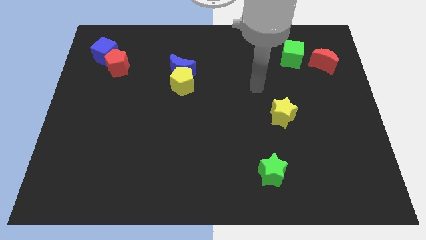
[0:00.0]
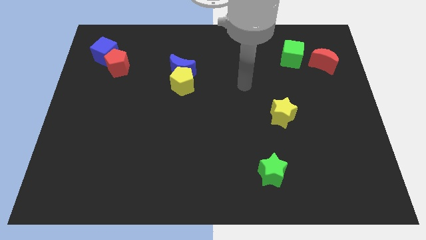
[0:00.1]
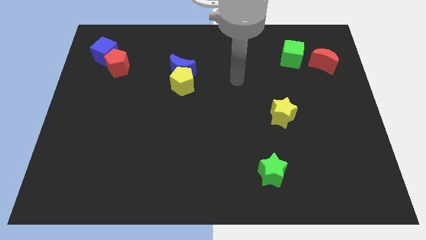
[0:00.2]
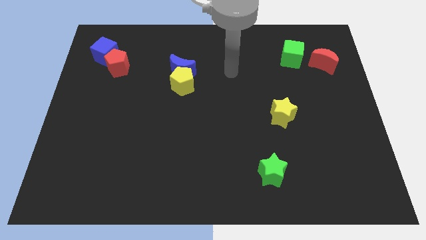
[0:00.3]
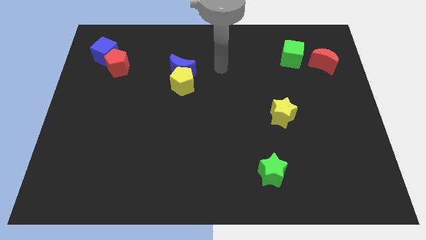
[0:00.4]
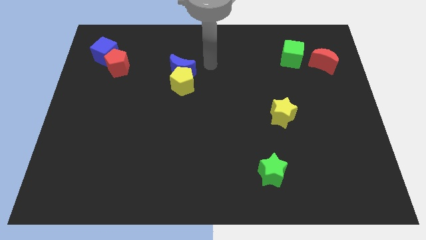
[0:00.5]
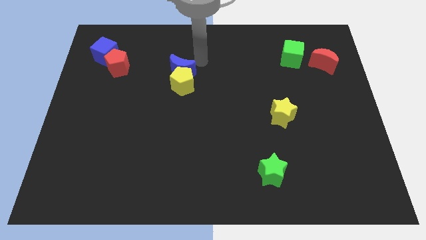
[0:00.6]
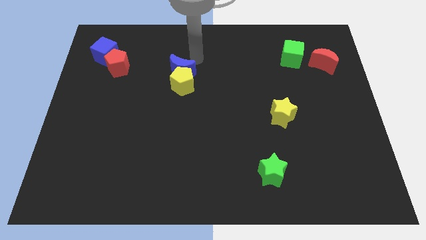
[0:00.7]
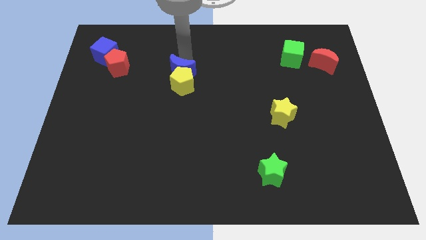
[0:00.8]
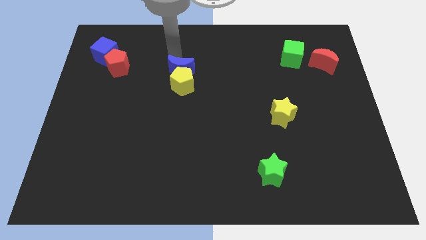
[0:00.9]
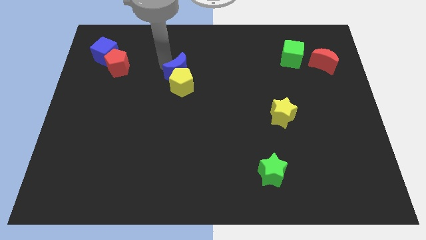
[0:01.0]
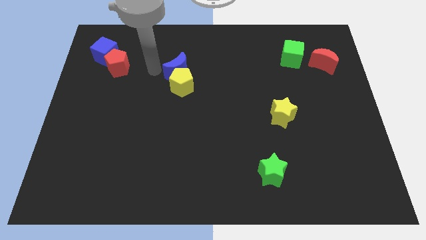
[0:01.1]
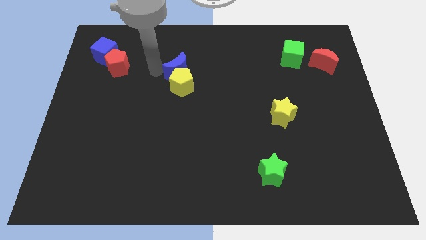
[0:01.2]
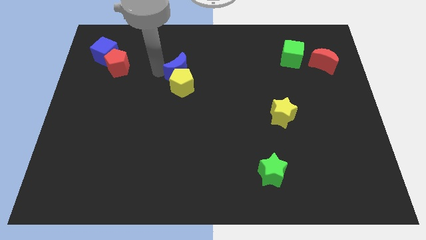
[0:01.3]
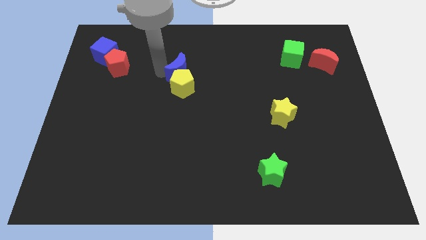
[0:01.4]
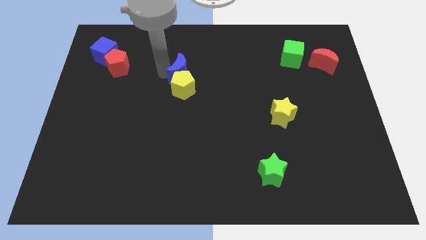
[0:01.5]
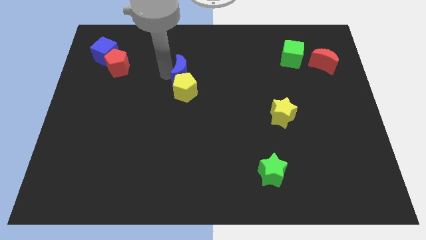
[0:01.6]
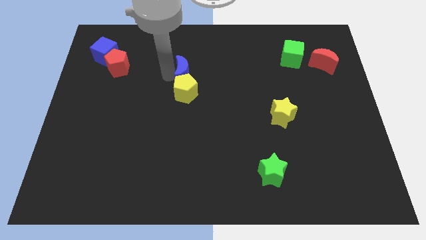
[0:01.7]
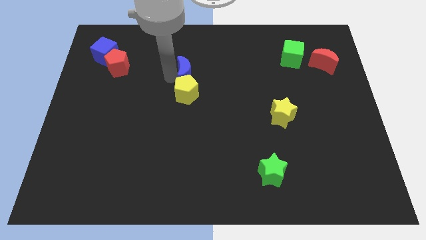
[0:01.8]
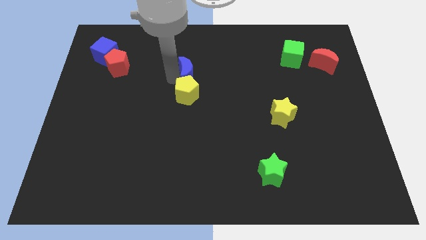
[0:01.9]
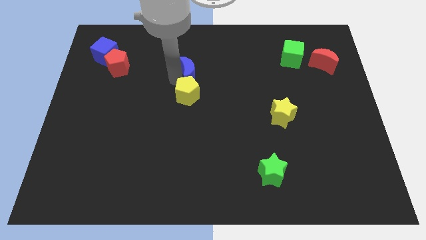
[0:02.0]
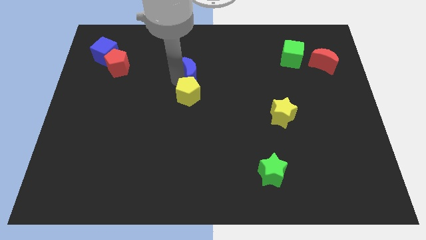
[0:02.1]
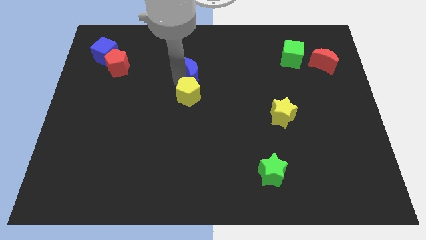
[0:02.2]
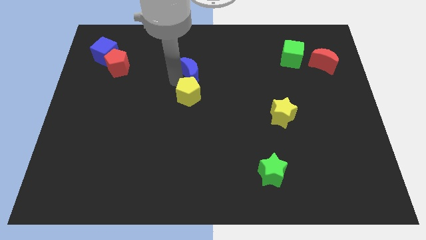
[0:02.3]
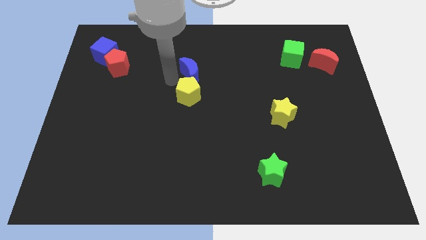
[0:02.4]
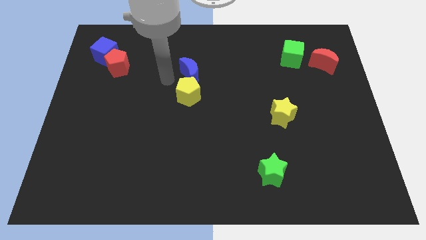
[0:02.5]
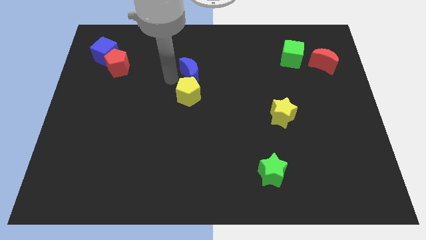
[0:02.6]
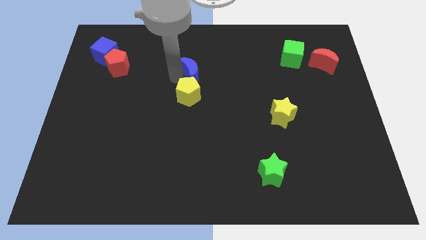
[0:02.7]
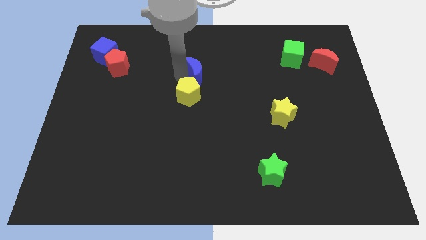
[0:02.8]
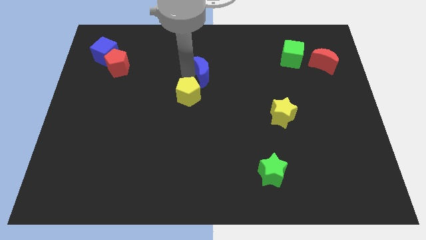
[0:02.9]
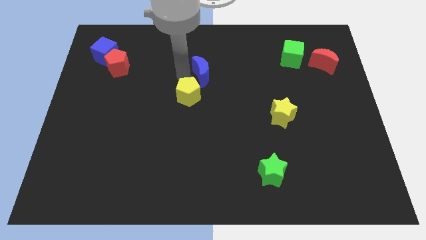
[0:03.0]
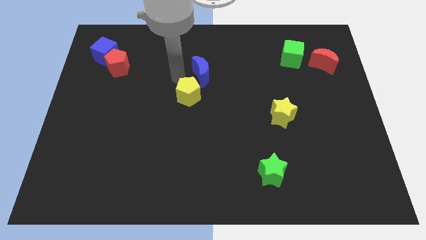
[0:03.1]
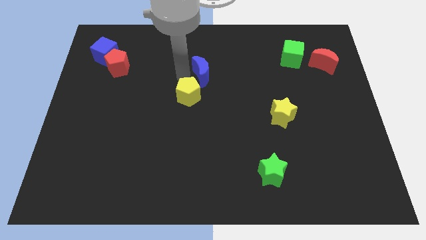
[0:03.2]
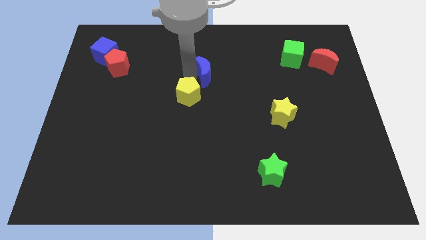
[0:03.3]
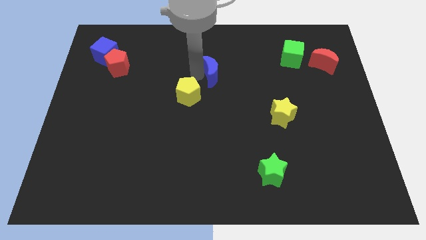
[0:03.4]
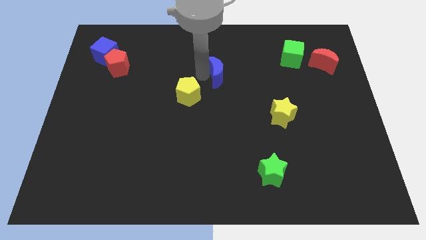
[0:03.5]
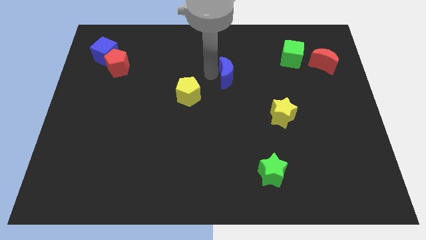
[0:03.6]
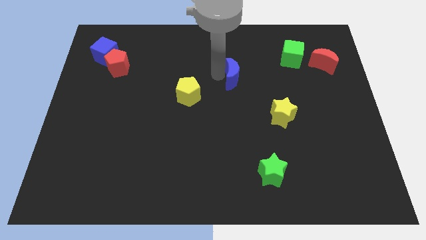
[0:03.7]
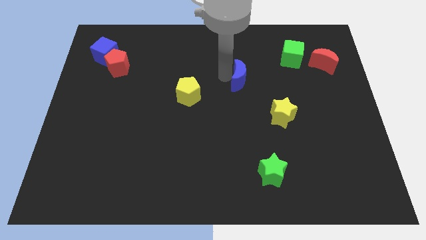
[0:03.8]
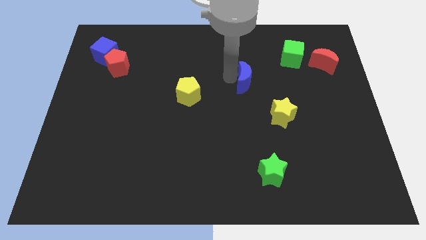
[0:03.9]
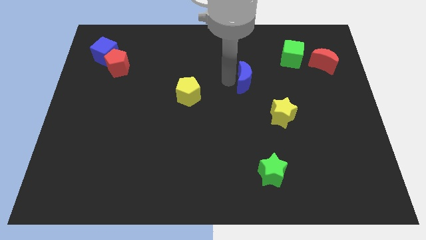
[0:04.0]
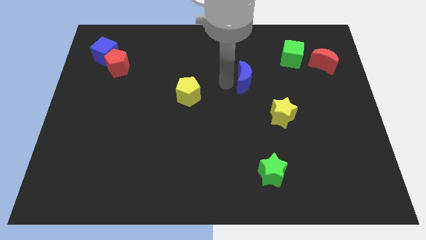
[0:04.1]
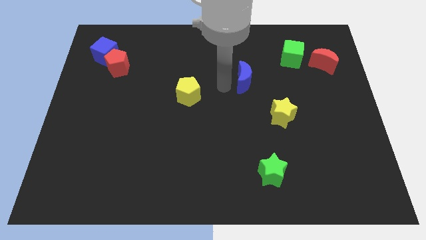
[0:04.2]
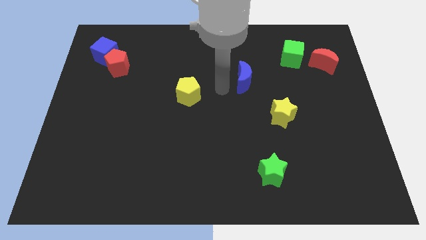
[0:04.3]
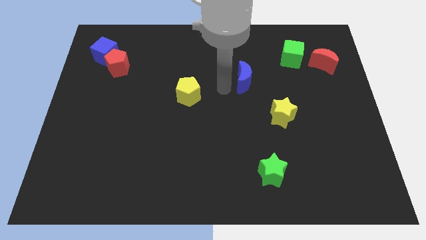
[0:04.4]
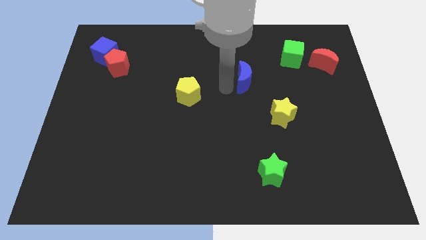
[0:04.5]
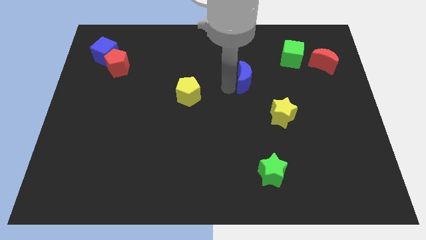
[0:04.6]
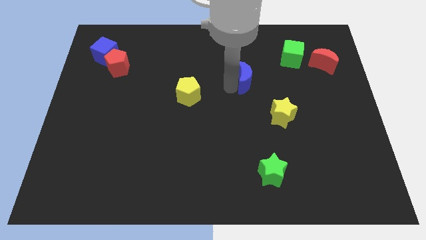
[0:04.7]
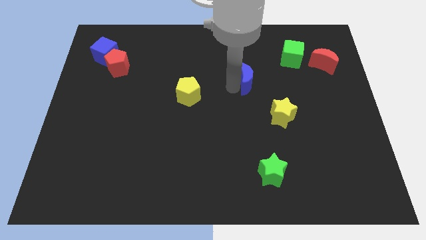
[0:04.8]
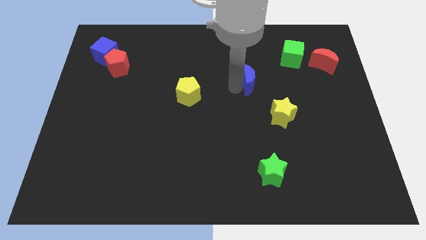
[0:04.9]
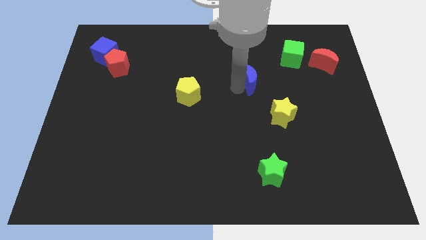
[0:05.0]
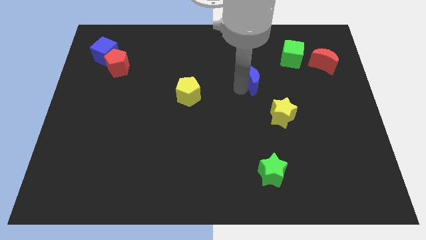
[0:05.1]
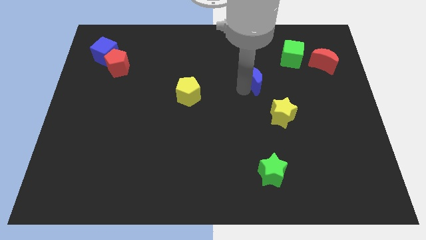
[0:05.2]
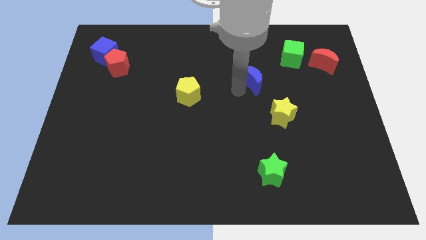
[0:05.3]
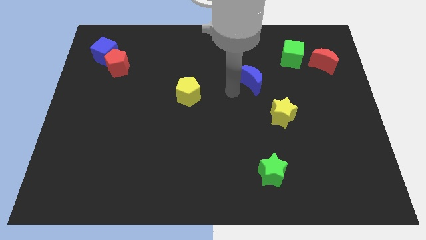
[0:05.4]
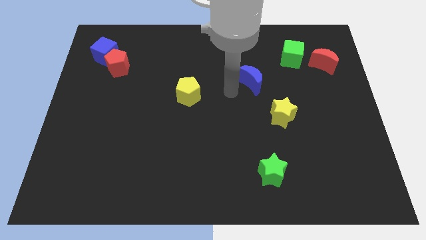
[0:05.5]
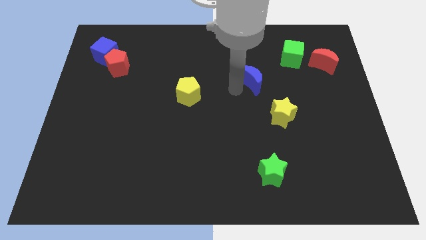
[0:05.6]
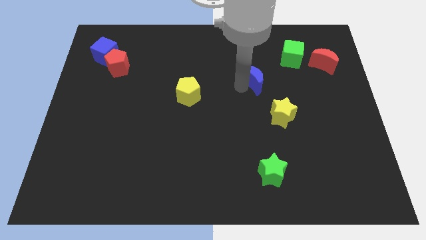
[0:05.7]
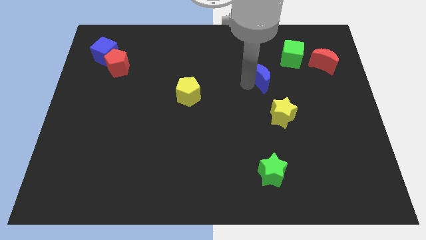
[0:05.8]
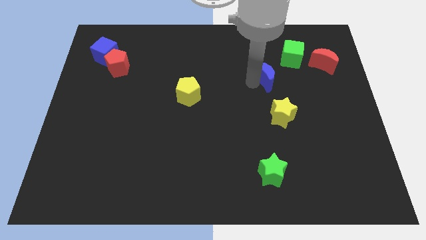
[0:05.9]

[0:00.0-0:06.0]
move the blue moon to the right

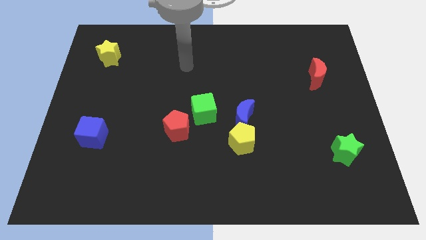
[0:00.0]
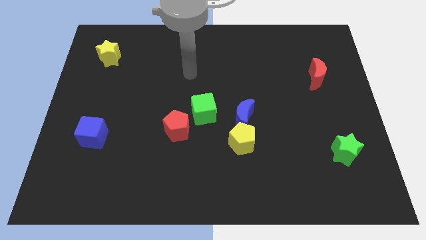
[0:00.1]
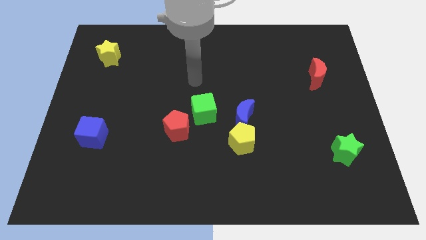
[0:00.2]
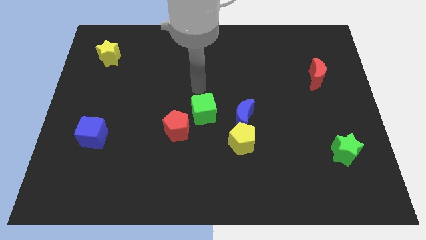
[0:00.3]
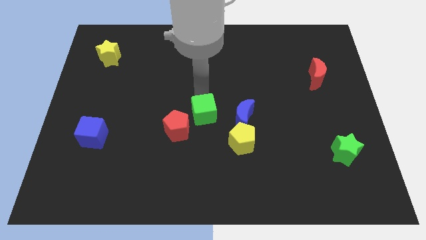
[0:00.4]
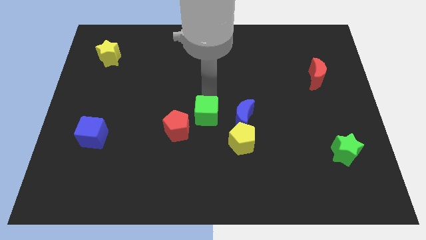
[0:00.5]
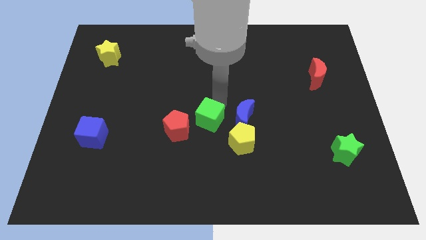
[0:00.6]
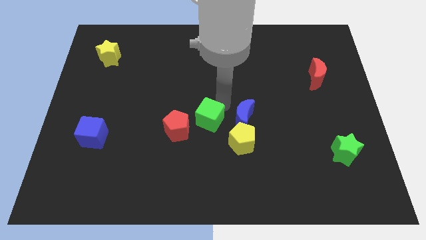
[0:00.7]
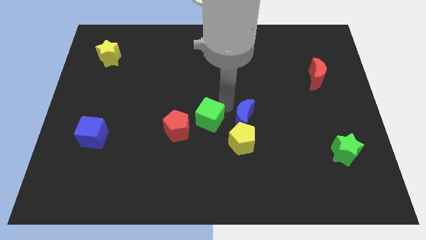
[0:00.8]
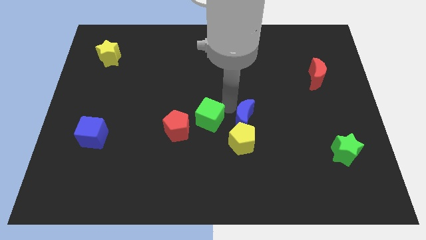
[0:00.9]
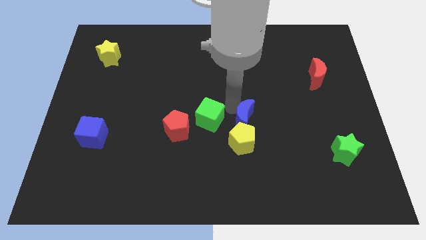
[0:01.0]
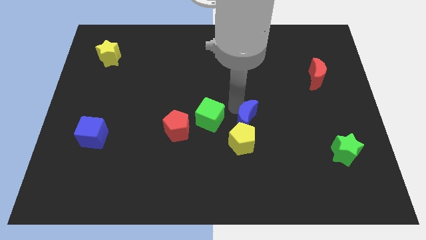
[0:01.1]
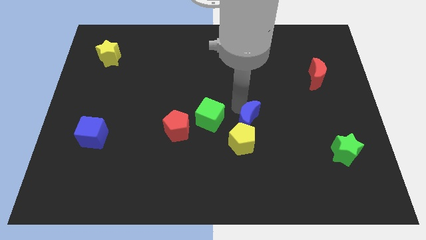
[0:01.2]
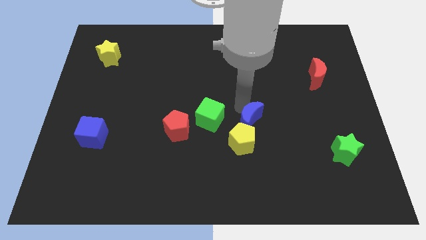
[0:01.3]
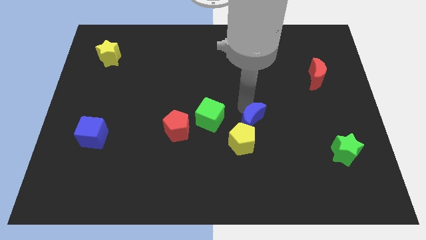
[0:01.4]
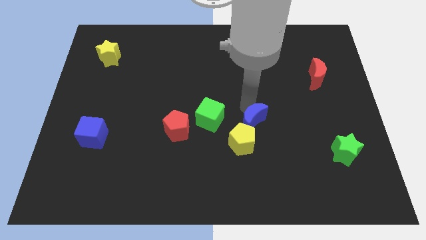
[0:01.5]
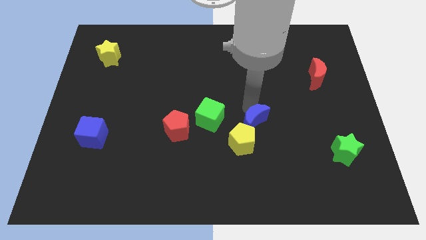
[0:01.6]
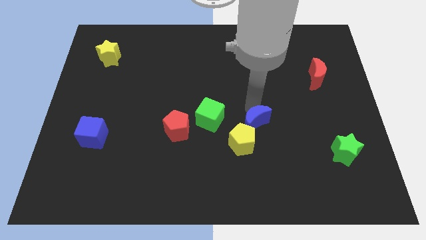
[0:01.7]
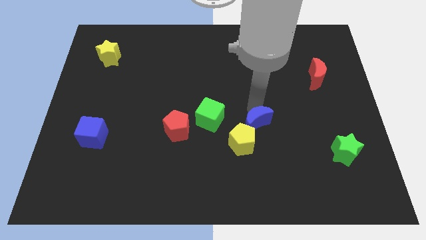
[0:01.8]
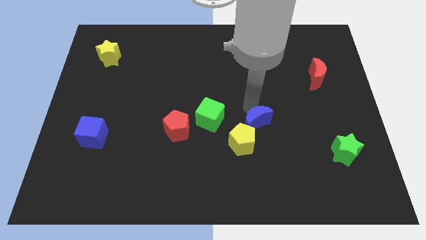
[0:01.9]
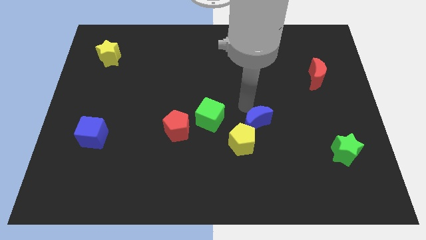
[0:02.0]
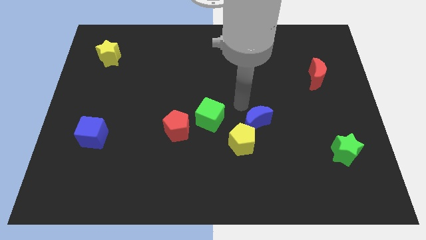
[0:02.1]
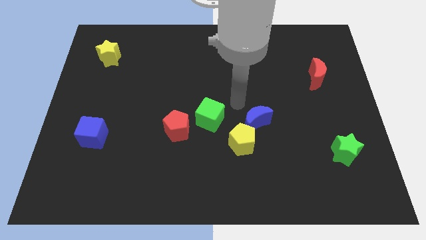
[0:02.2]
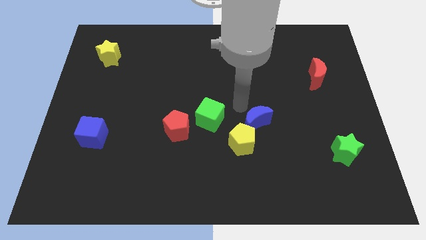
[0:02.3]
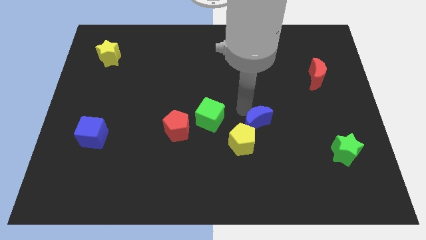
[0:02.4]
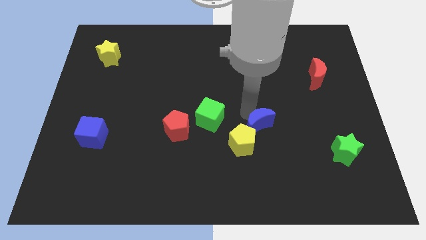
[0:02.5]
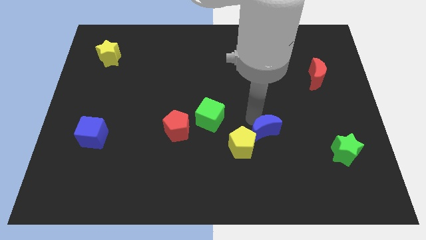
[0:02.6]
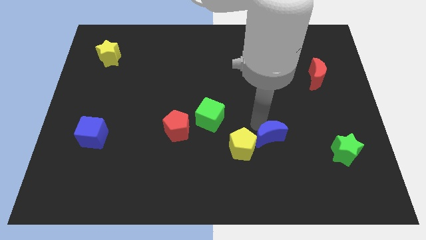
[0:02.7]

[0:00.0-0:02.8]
slide the blue moon down and then to the right a little
